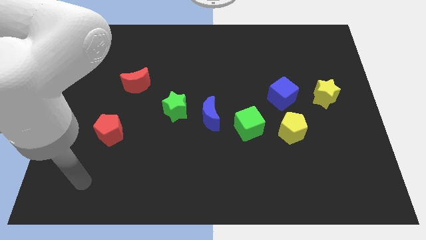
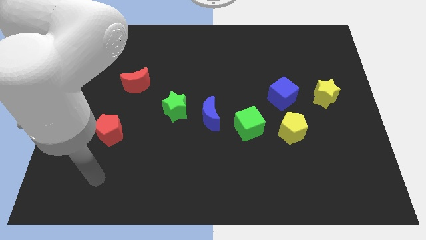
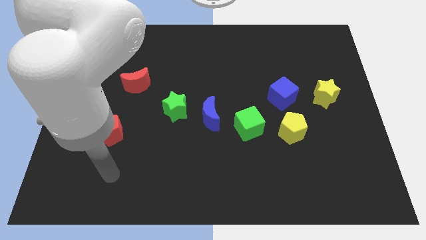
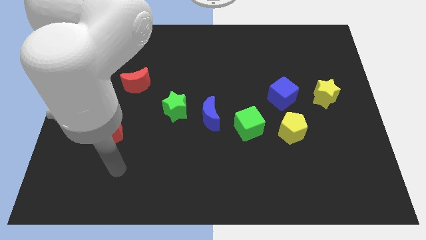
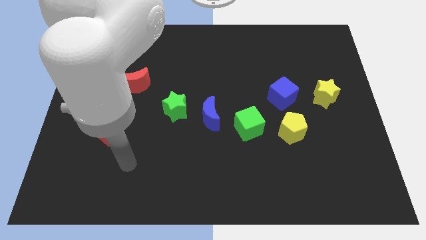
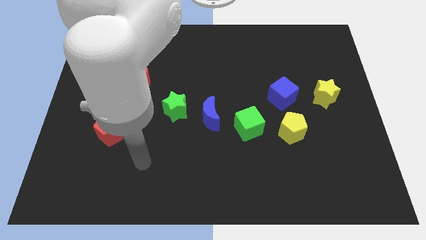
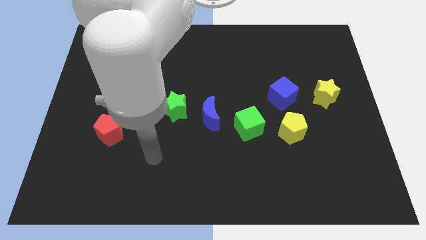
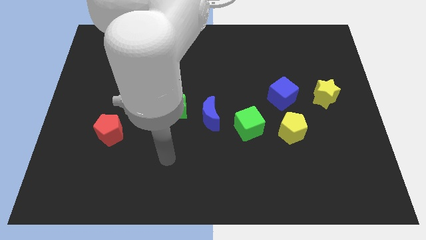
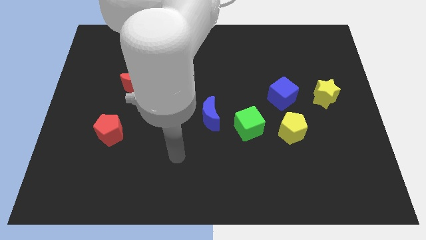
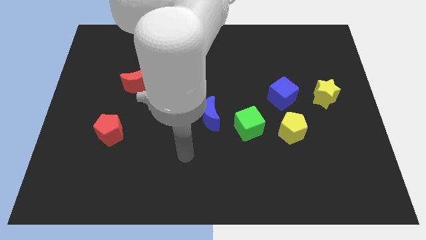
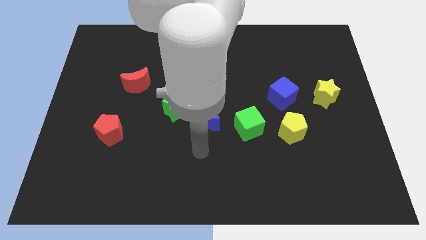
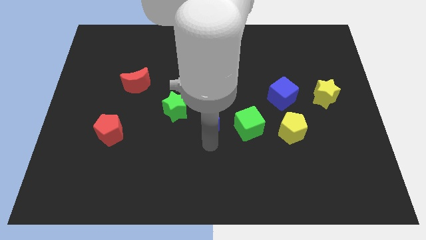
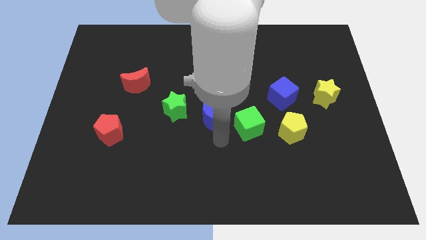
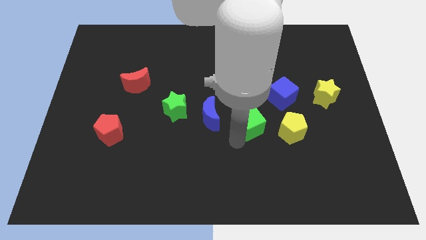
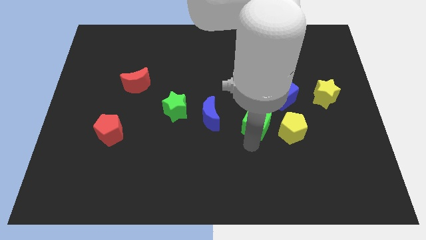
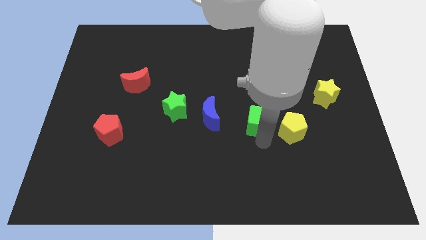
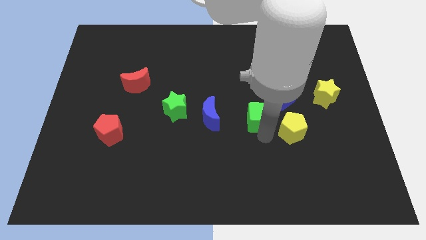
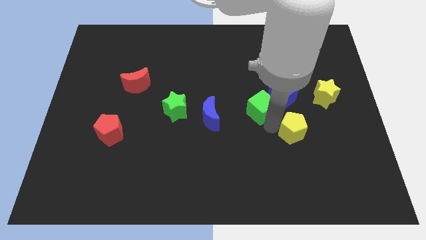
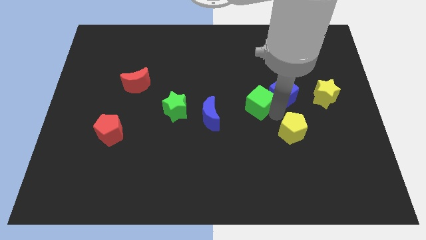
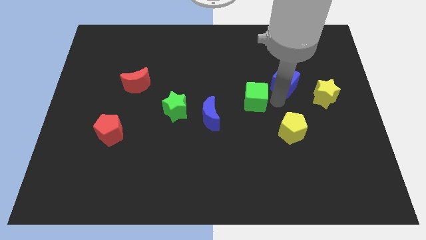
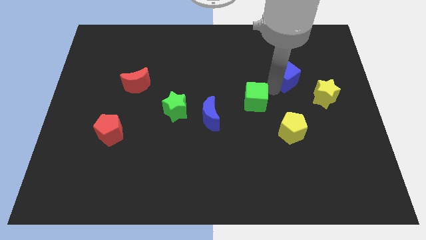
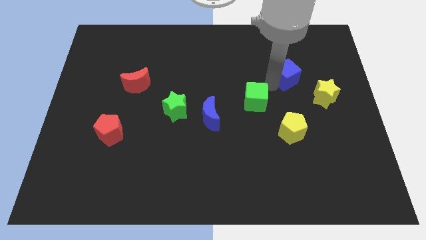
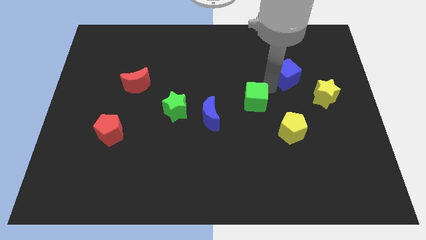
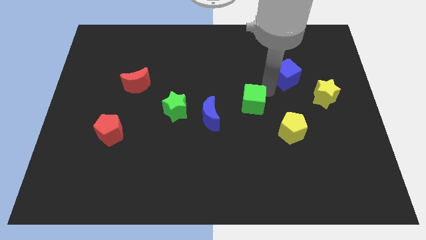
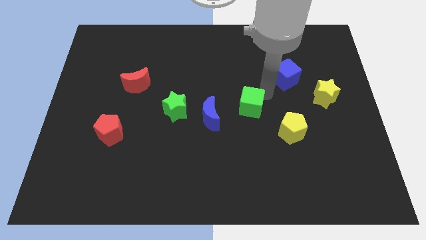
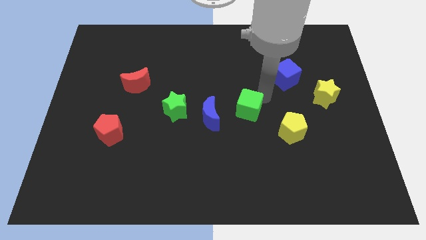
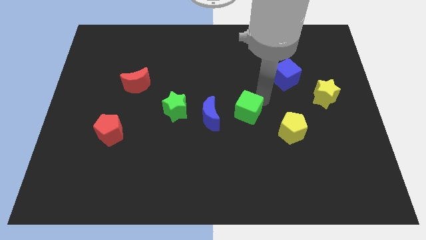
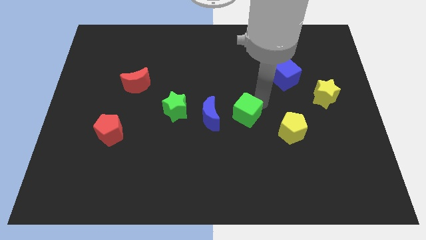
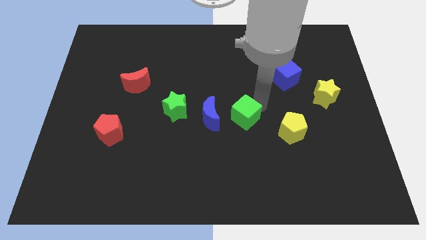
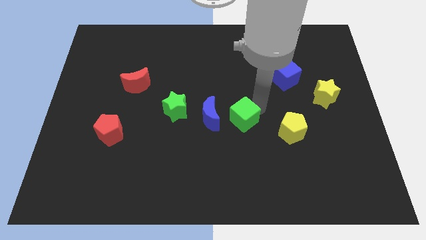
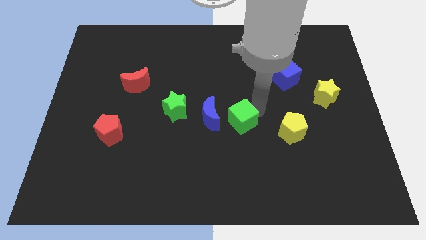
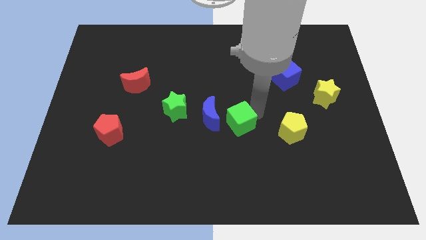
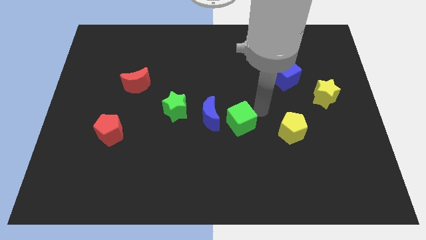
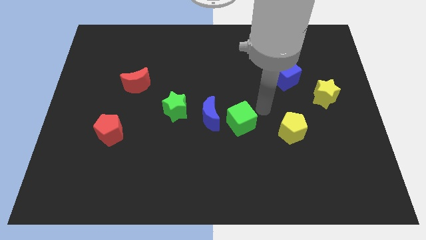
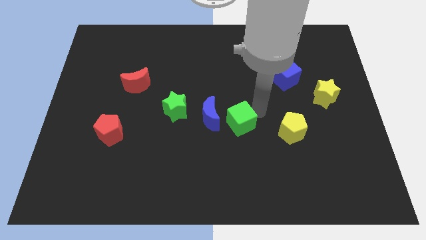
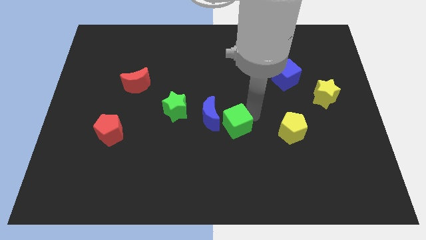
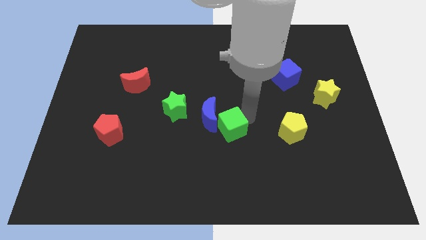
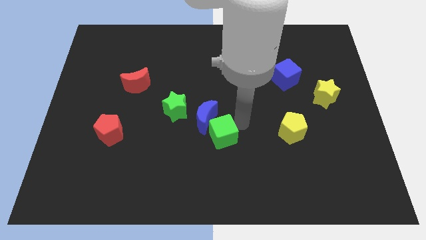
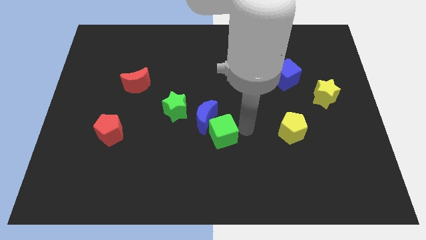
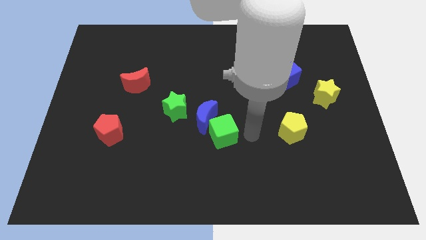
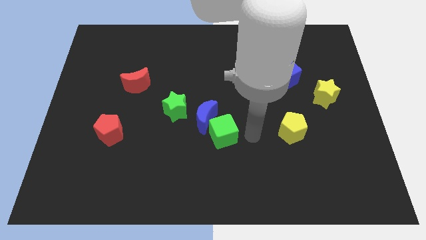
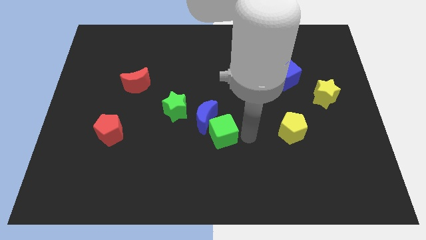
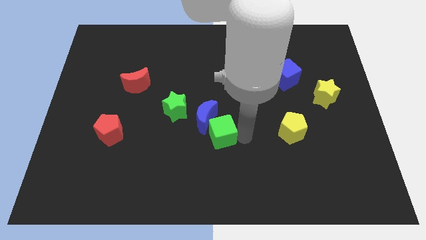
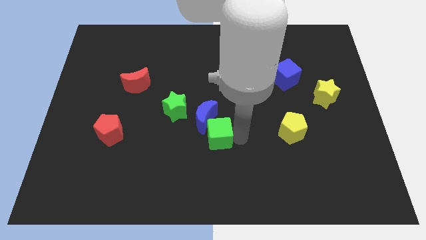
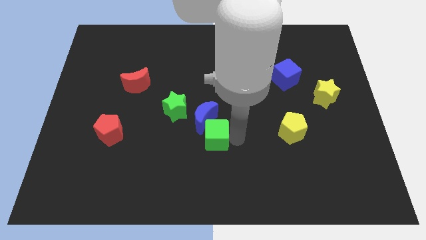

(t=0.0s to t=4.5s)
slightly slide the green cube left

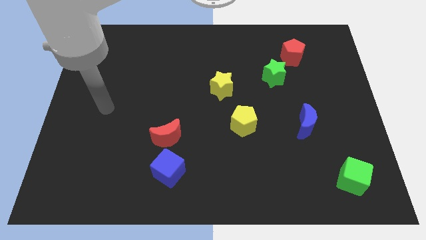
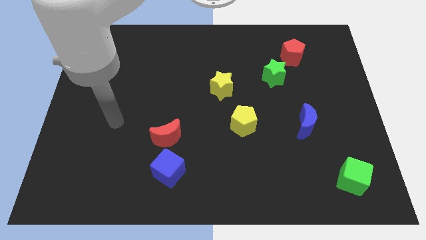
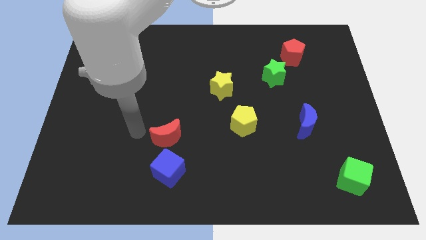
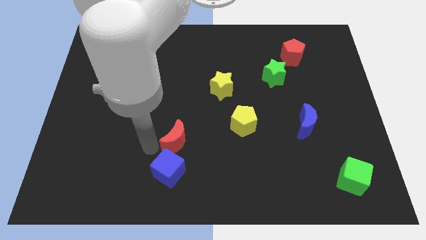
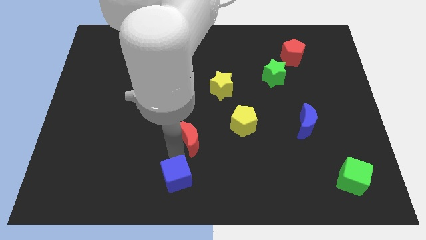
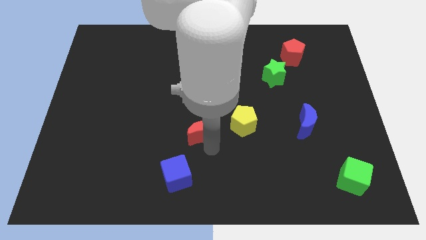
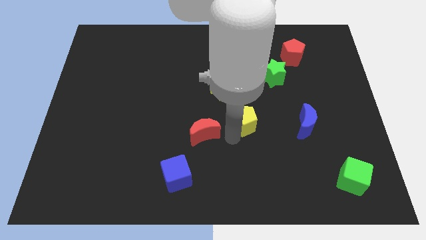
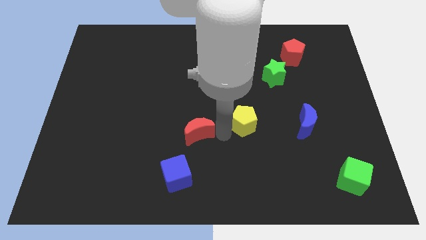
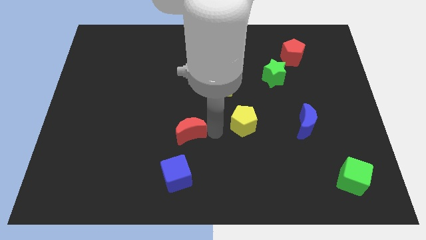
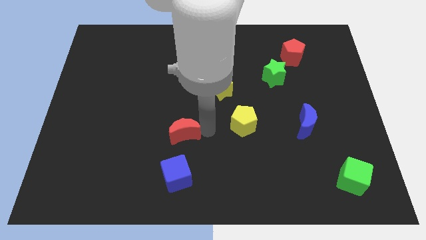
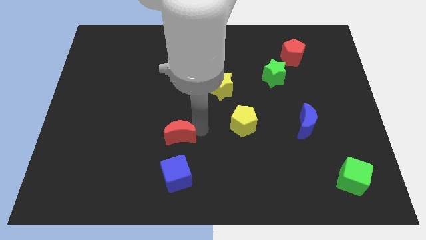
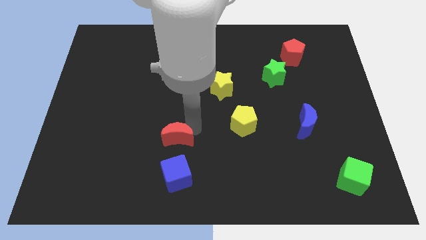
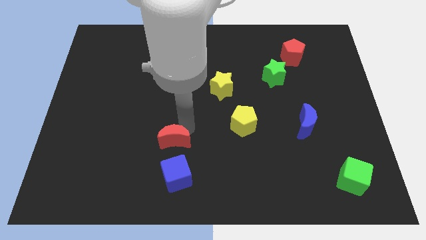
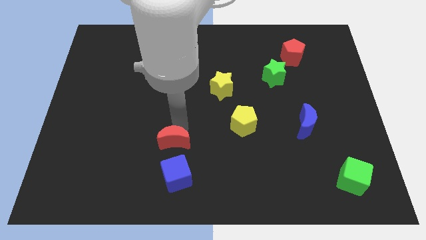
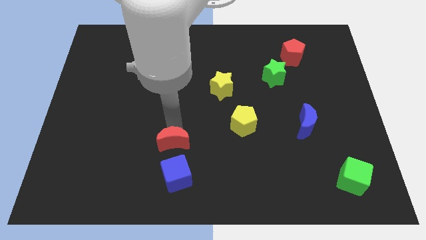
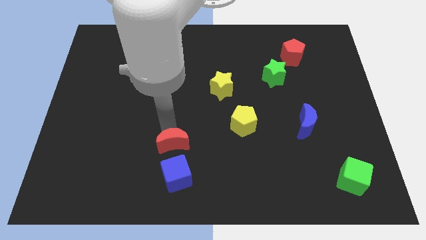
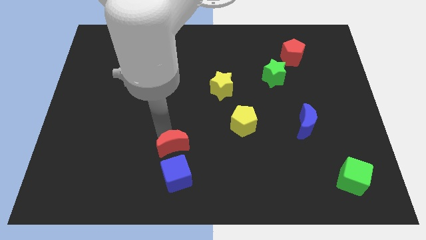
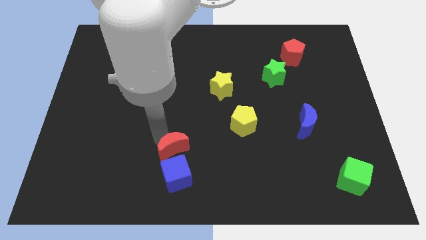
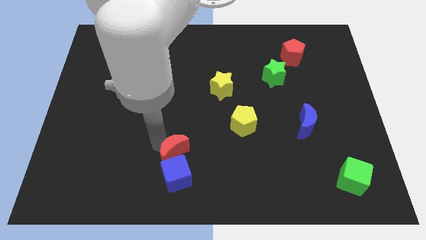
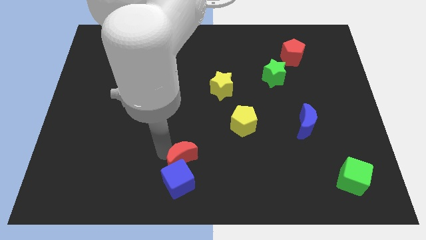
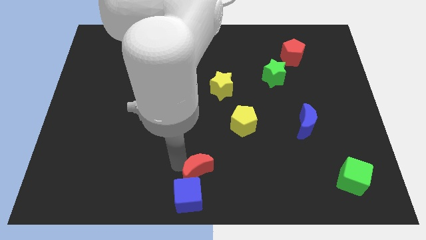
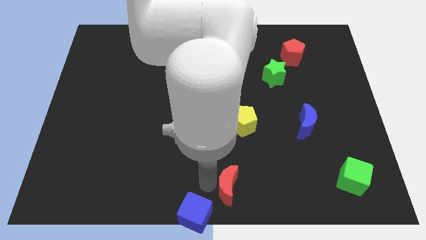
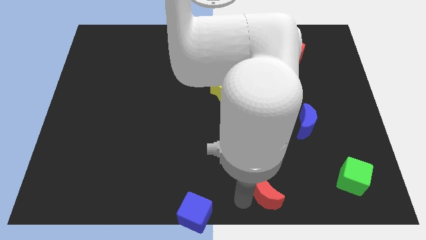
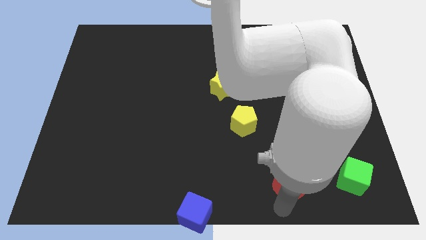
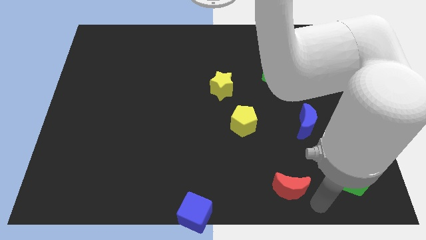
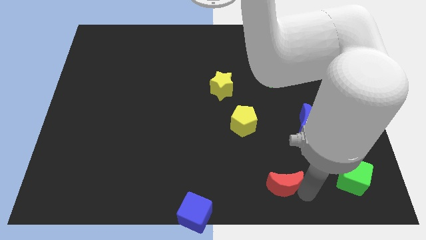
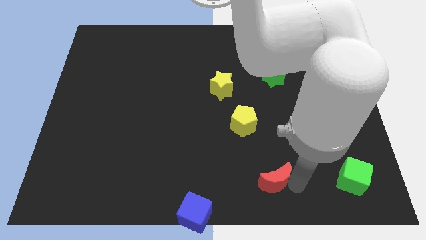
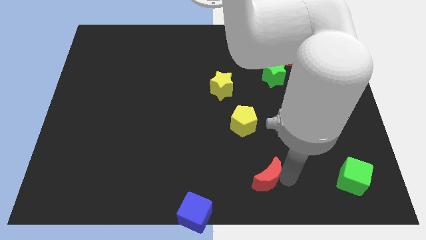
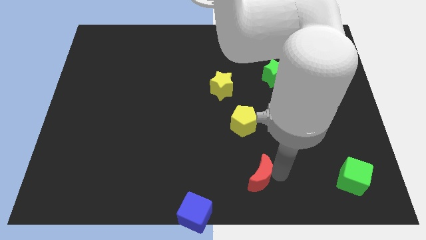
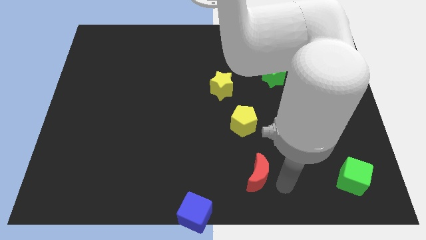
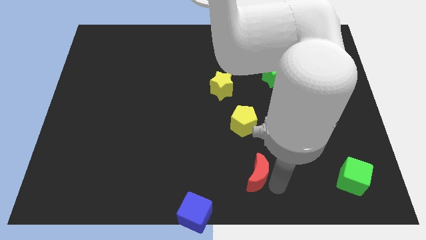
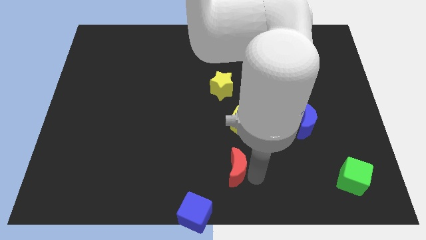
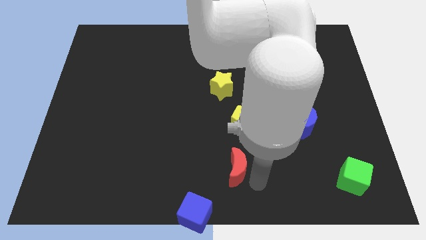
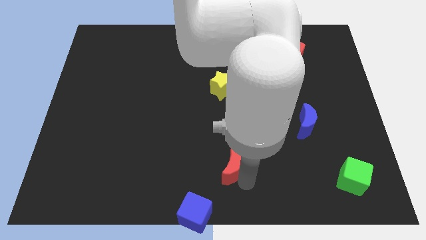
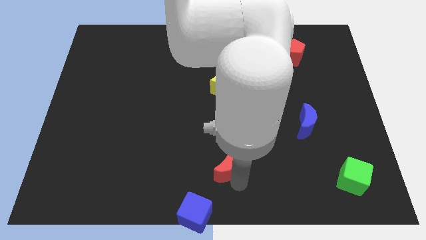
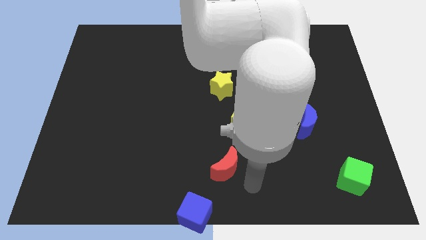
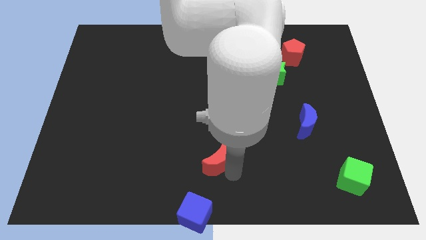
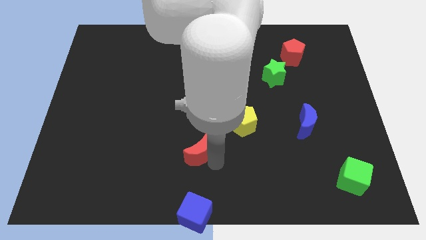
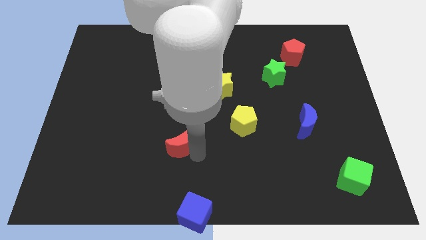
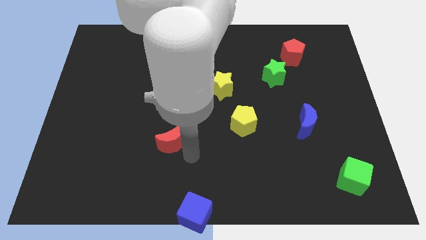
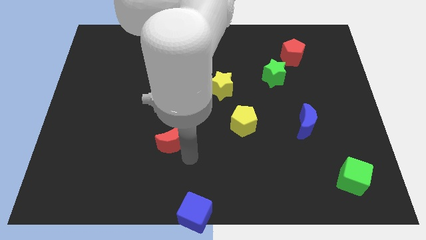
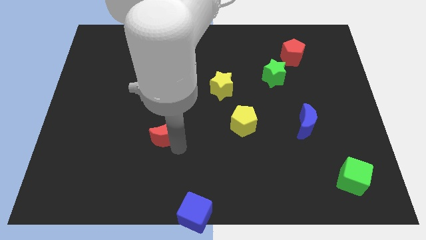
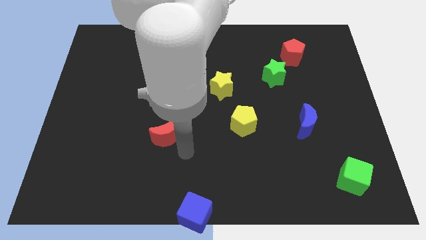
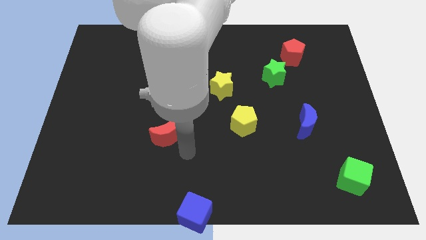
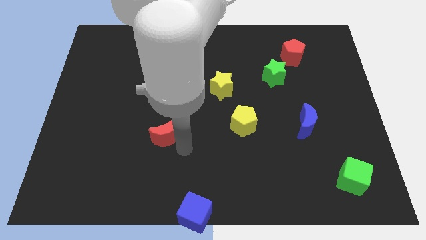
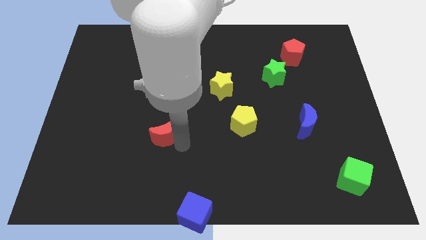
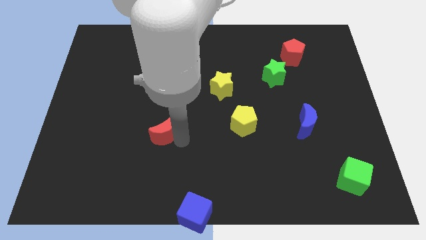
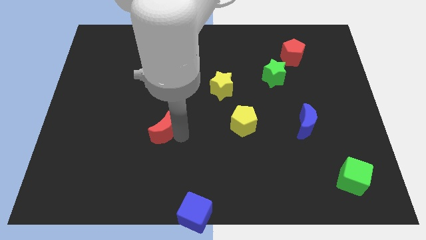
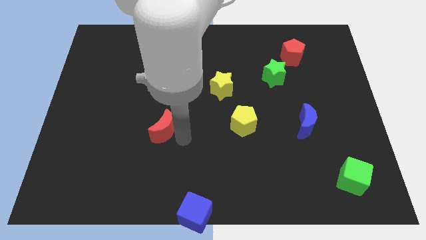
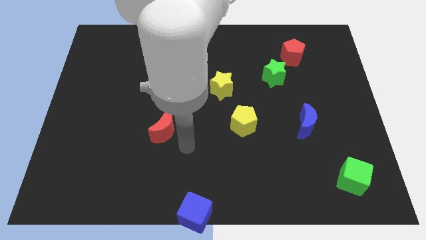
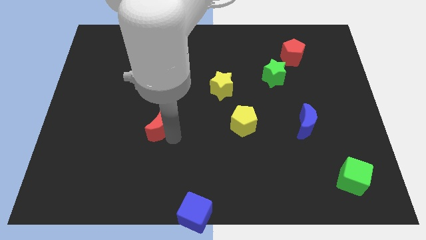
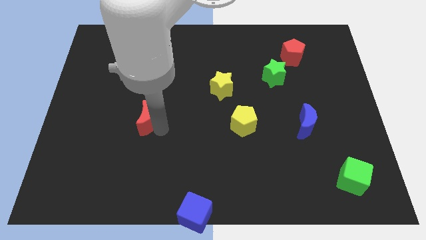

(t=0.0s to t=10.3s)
slide the red moon upwards and then left a bit
